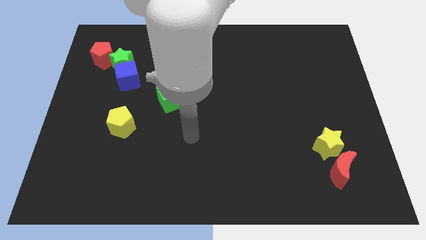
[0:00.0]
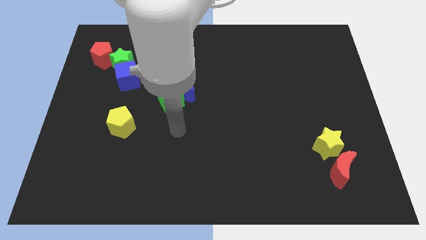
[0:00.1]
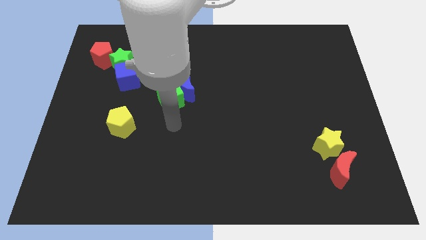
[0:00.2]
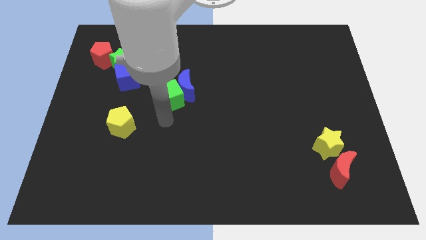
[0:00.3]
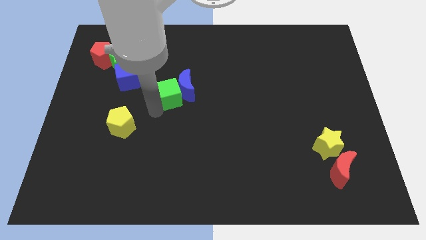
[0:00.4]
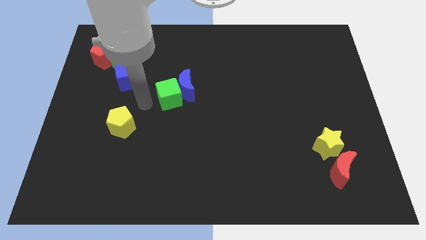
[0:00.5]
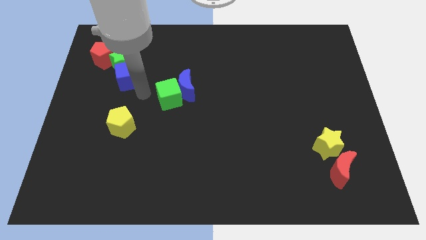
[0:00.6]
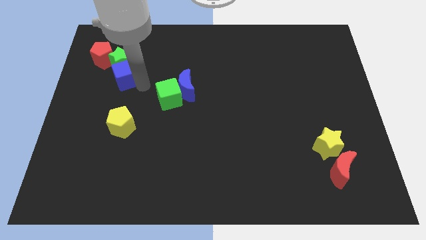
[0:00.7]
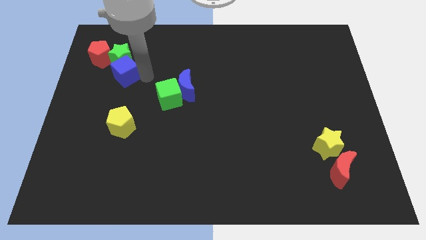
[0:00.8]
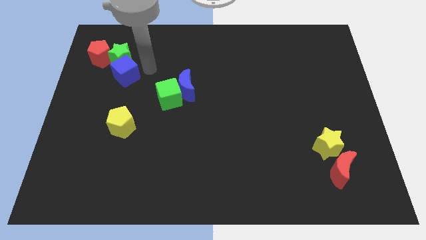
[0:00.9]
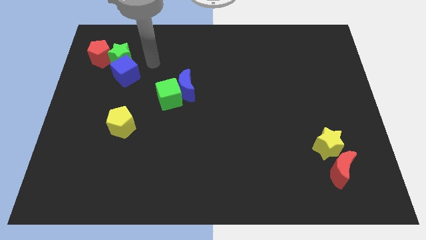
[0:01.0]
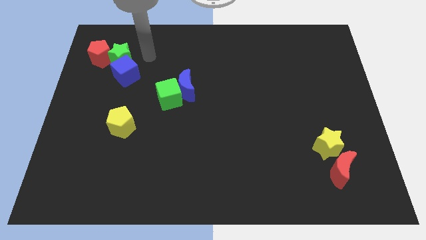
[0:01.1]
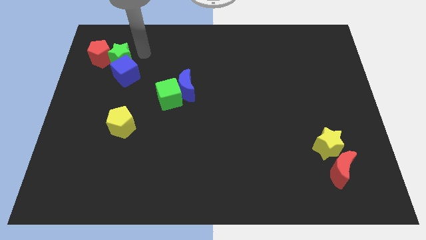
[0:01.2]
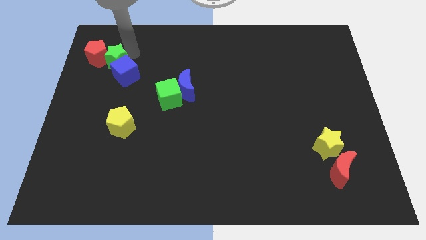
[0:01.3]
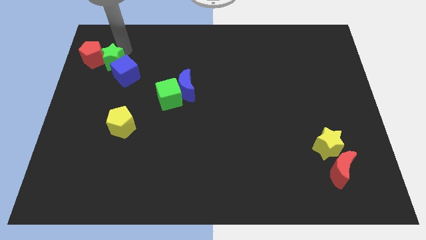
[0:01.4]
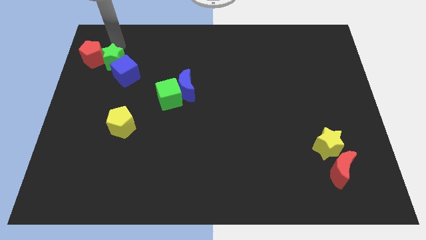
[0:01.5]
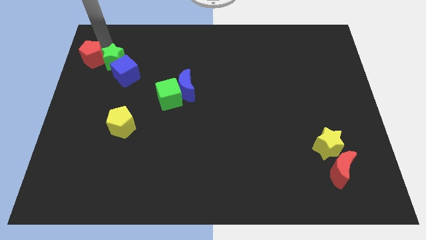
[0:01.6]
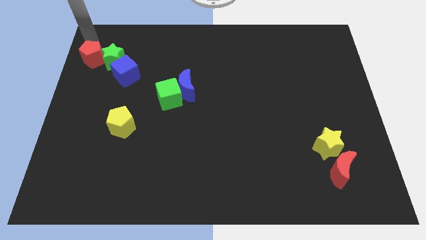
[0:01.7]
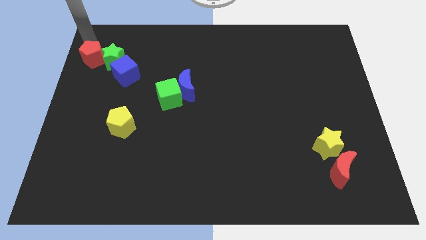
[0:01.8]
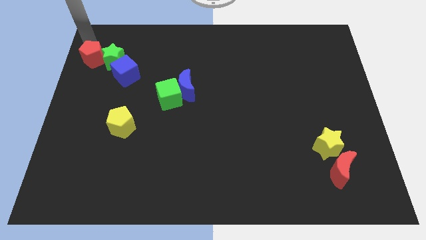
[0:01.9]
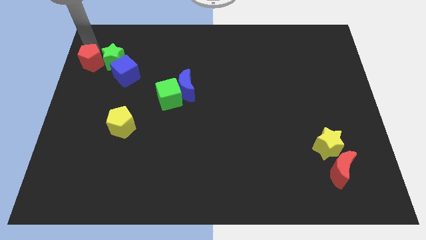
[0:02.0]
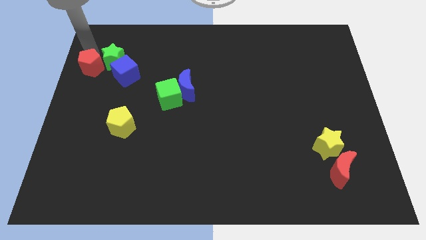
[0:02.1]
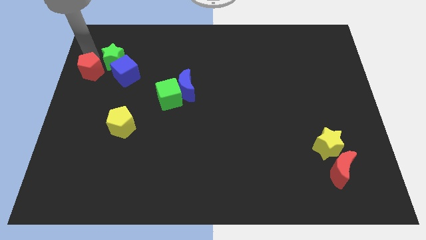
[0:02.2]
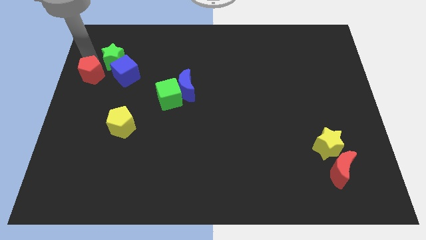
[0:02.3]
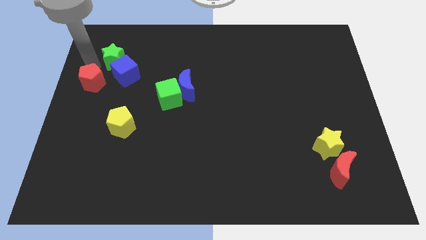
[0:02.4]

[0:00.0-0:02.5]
slightly slide the red pentagon down

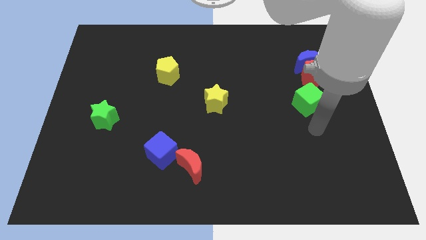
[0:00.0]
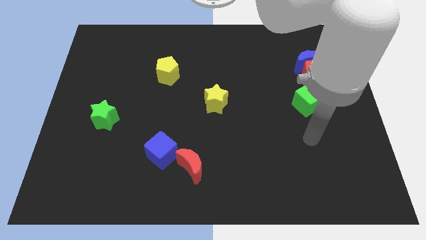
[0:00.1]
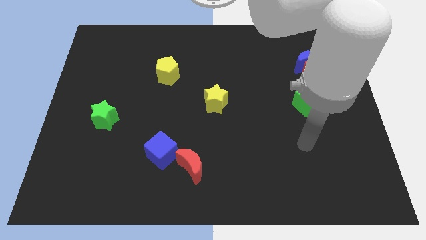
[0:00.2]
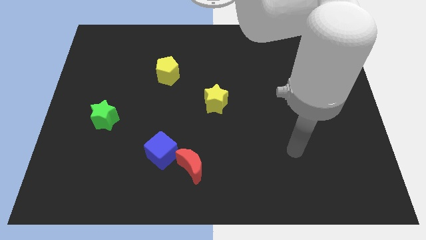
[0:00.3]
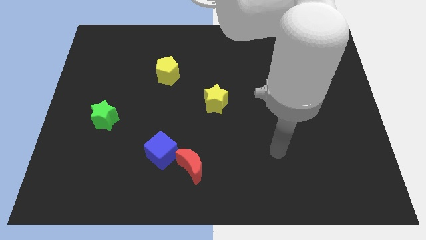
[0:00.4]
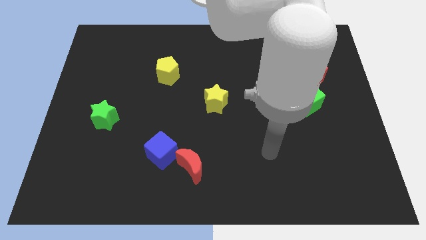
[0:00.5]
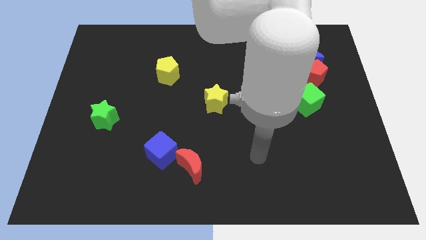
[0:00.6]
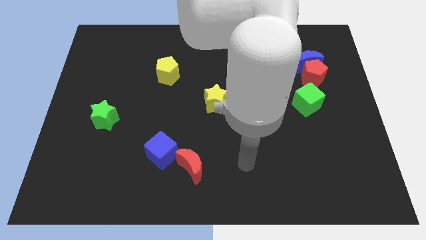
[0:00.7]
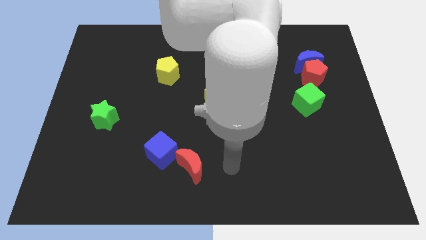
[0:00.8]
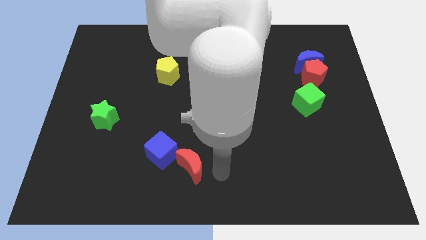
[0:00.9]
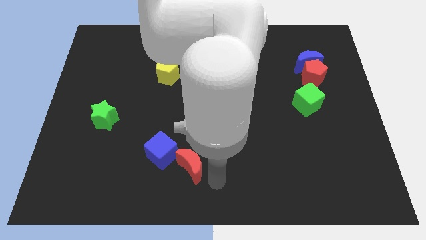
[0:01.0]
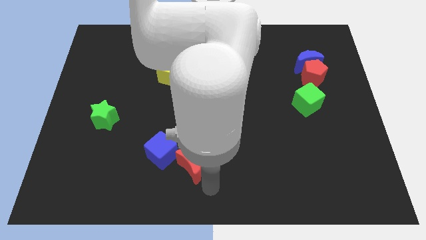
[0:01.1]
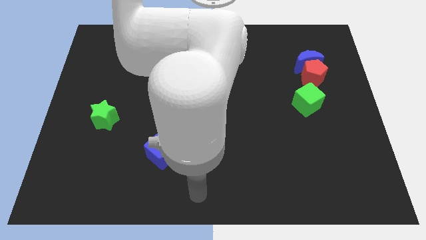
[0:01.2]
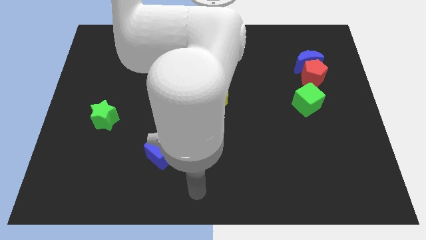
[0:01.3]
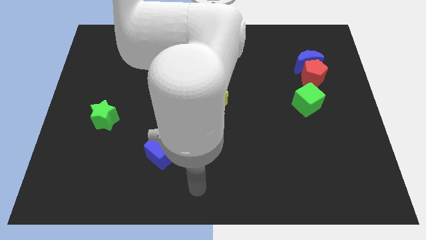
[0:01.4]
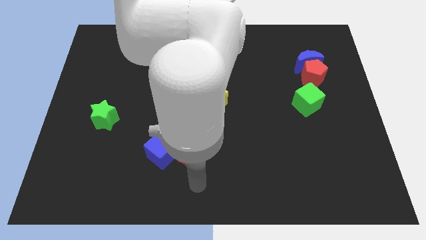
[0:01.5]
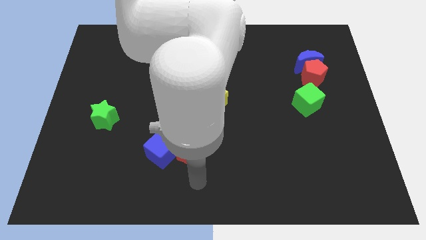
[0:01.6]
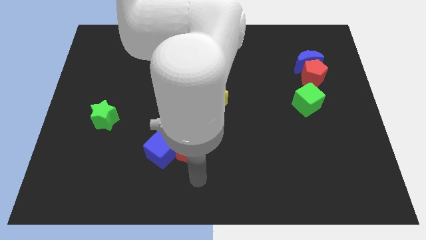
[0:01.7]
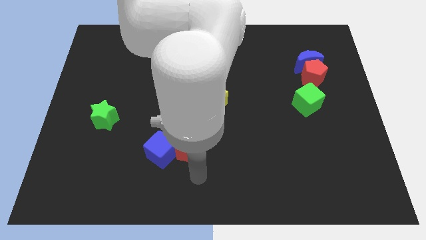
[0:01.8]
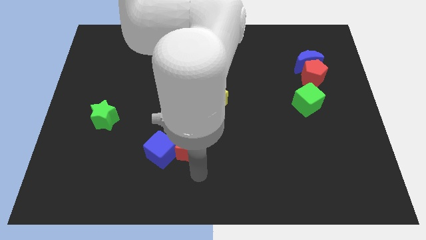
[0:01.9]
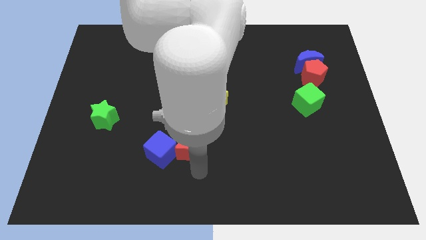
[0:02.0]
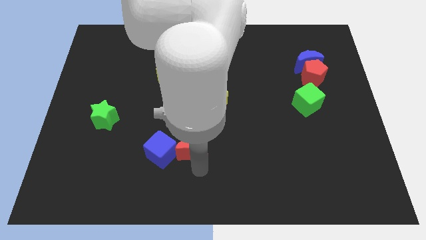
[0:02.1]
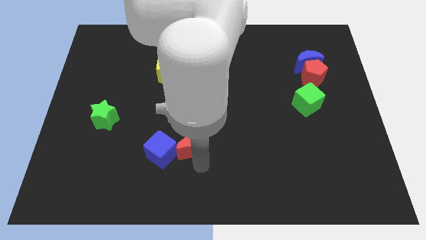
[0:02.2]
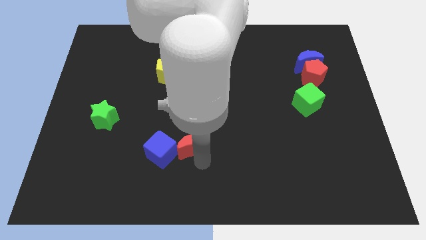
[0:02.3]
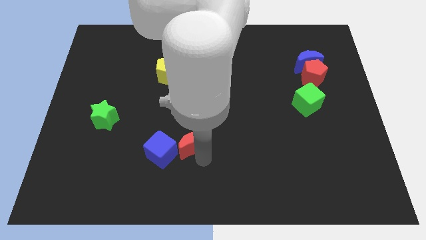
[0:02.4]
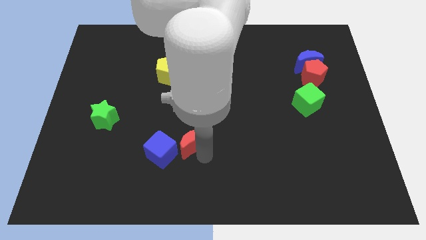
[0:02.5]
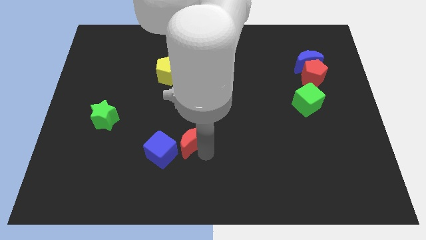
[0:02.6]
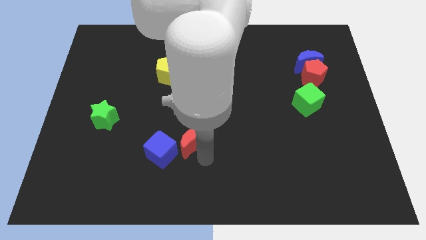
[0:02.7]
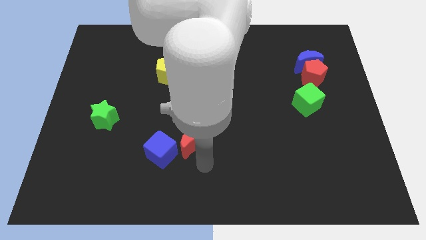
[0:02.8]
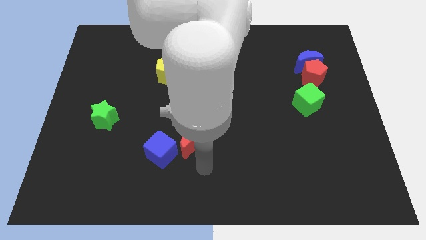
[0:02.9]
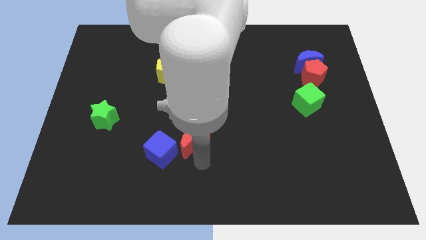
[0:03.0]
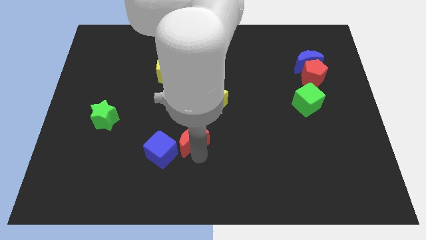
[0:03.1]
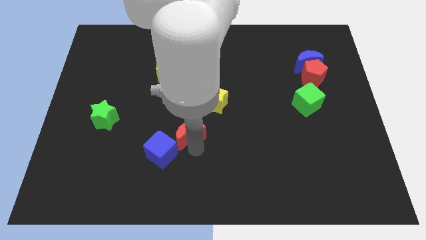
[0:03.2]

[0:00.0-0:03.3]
slightly slide the red moon upwards

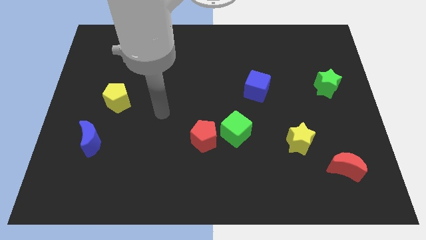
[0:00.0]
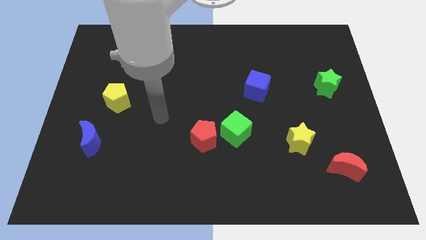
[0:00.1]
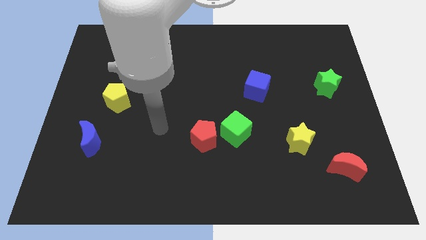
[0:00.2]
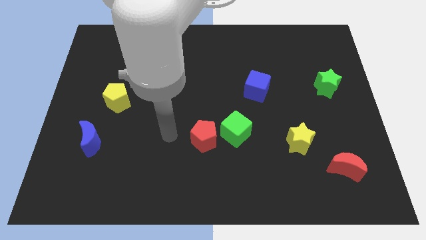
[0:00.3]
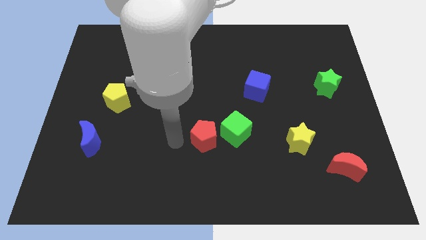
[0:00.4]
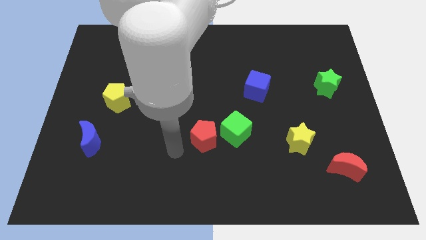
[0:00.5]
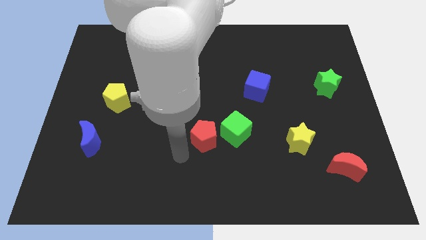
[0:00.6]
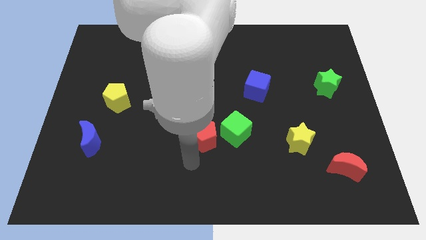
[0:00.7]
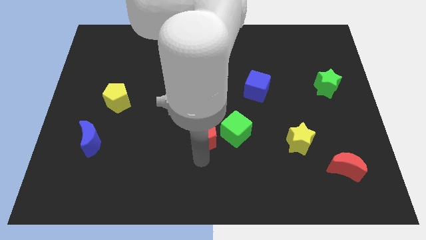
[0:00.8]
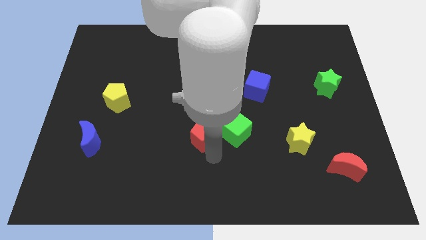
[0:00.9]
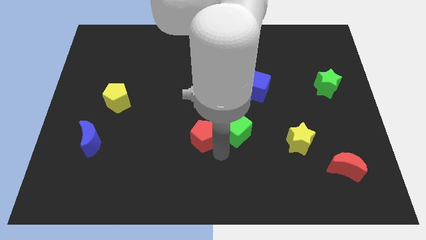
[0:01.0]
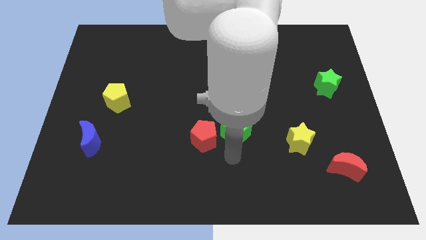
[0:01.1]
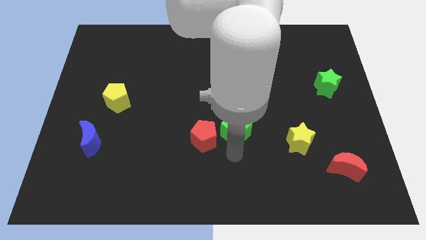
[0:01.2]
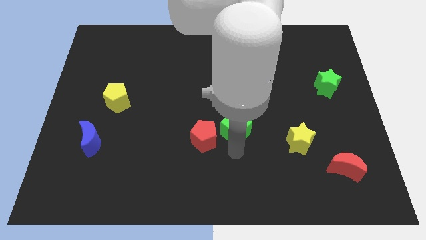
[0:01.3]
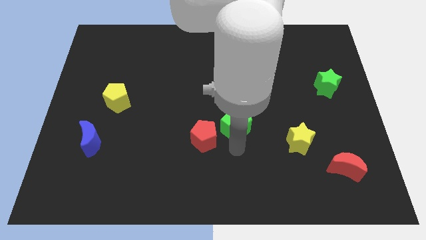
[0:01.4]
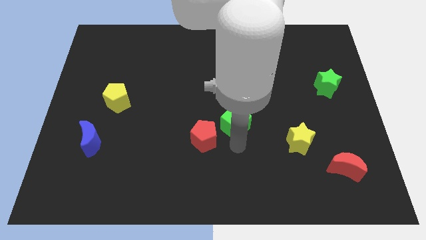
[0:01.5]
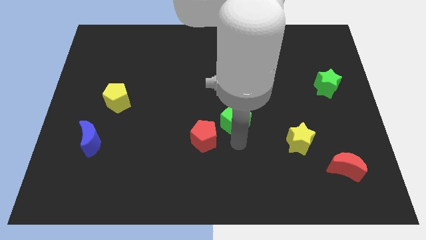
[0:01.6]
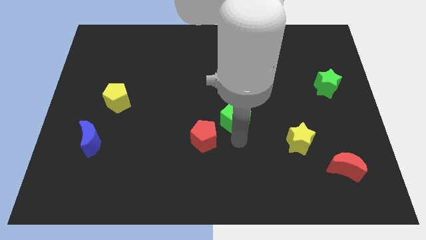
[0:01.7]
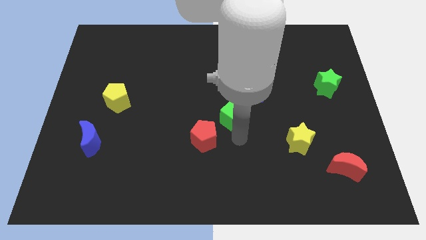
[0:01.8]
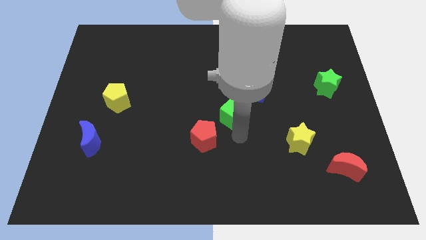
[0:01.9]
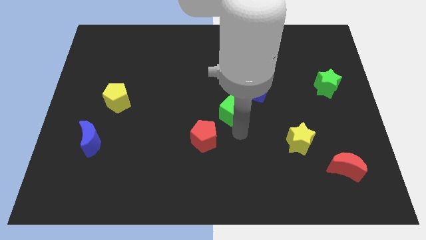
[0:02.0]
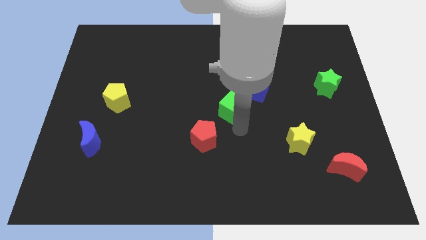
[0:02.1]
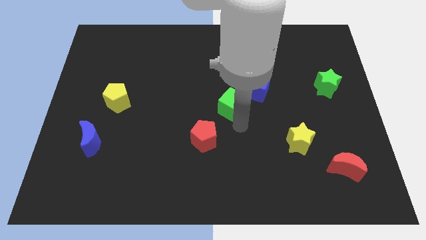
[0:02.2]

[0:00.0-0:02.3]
push the green cube up somewhat
